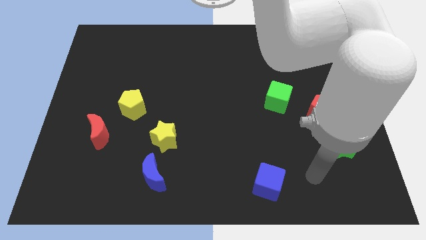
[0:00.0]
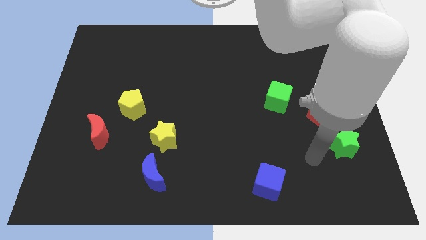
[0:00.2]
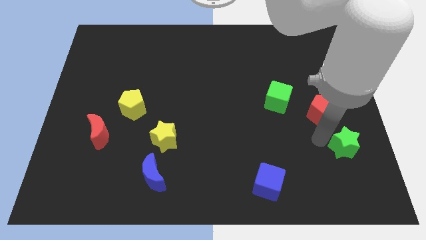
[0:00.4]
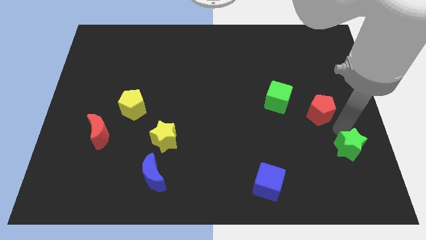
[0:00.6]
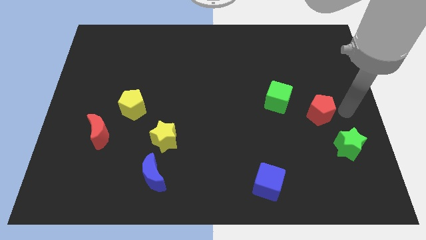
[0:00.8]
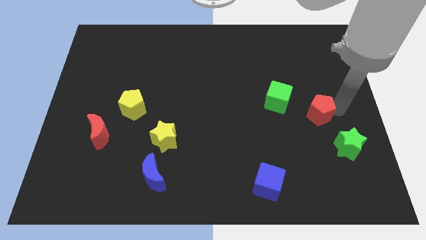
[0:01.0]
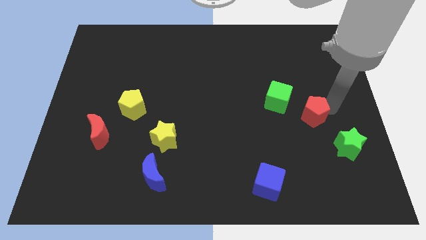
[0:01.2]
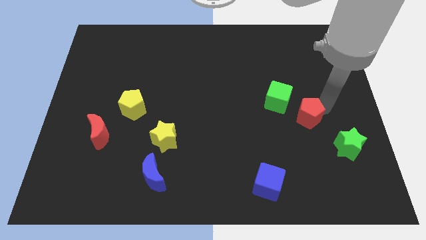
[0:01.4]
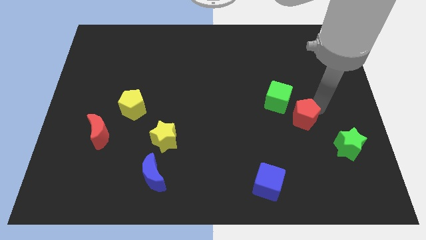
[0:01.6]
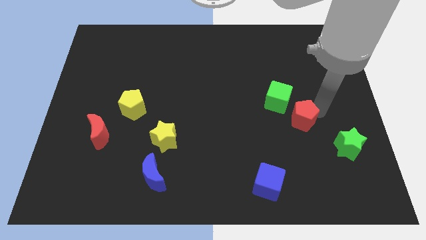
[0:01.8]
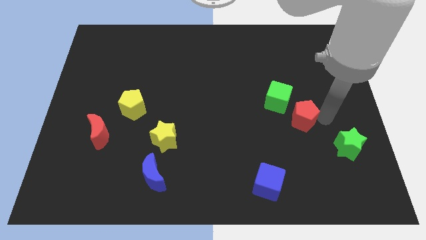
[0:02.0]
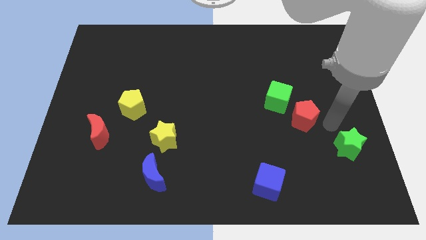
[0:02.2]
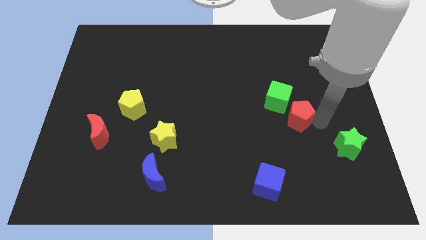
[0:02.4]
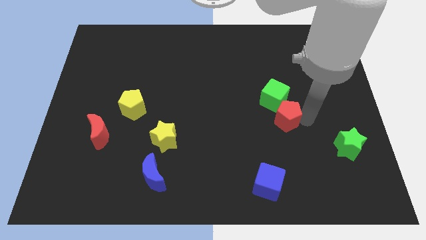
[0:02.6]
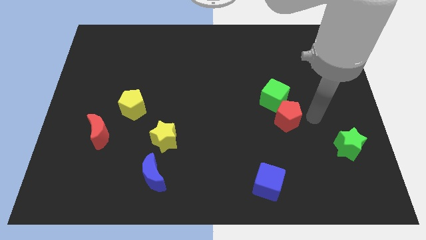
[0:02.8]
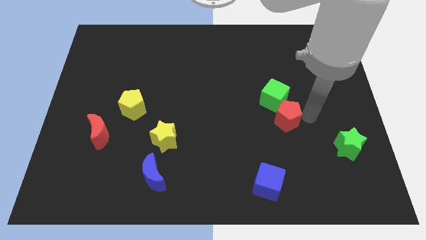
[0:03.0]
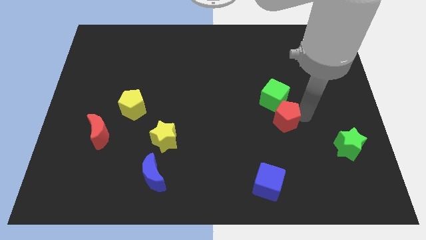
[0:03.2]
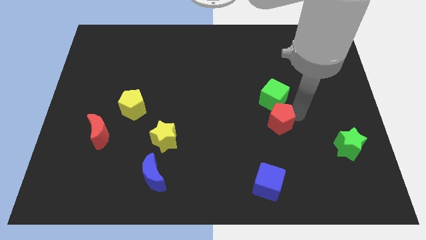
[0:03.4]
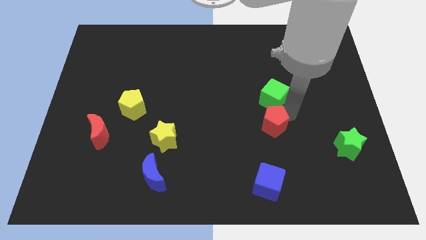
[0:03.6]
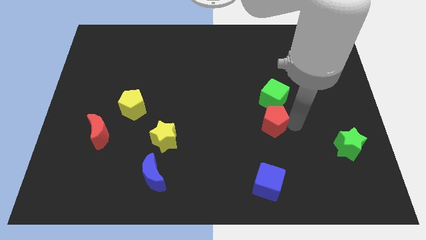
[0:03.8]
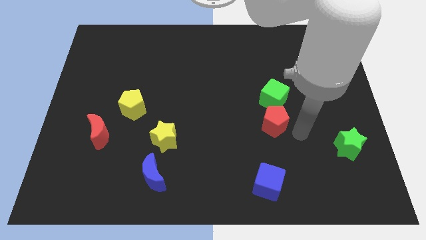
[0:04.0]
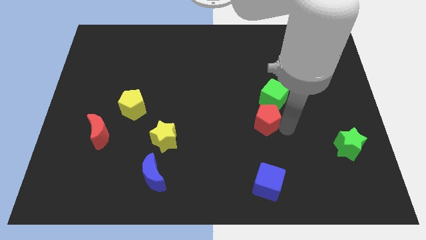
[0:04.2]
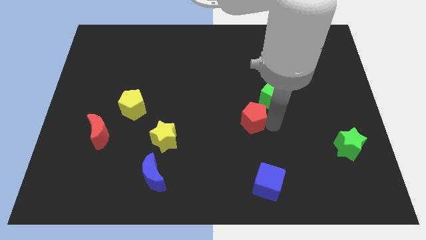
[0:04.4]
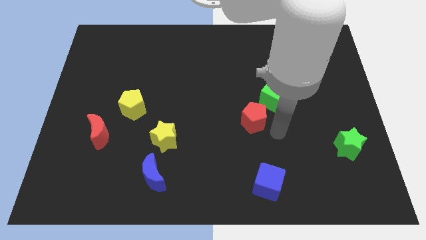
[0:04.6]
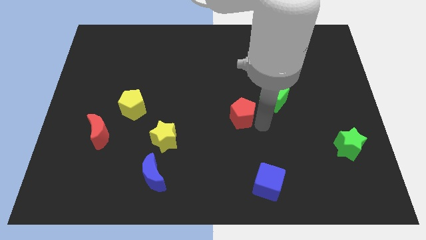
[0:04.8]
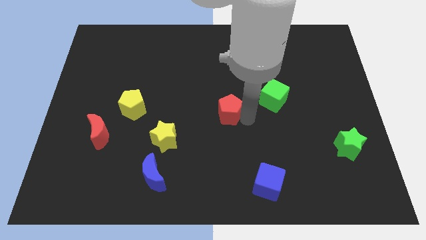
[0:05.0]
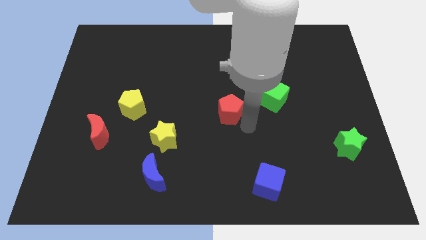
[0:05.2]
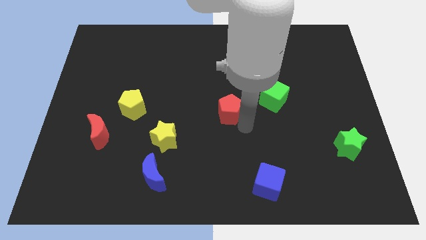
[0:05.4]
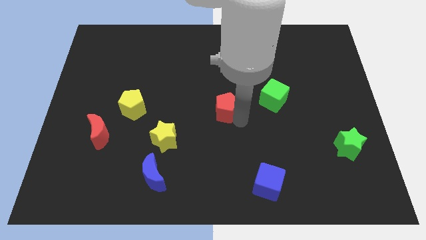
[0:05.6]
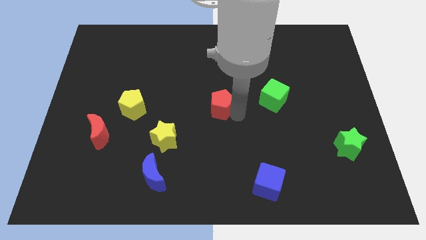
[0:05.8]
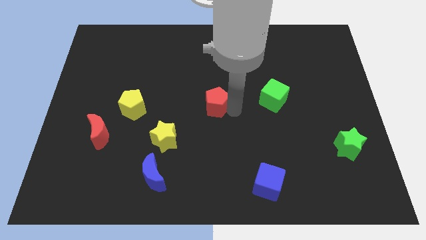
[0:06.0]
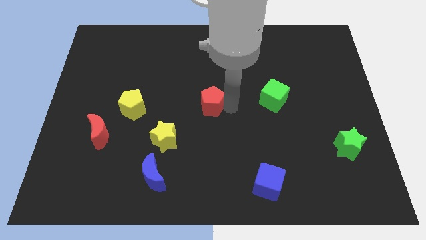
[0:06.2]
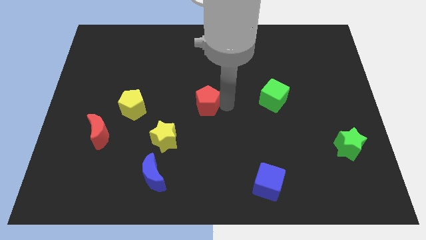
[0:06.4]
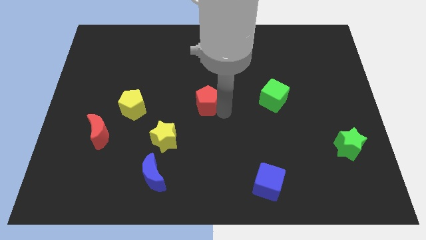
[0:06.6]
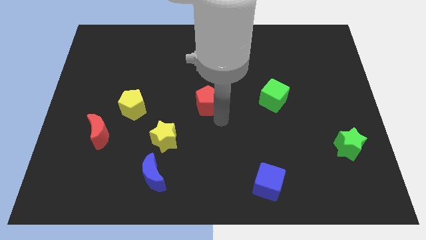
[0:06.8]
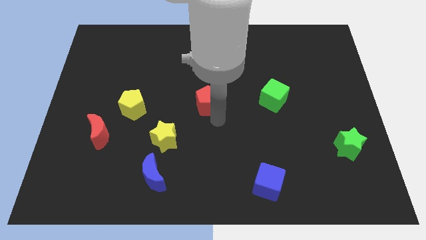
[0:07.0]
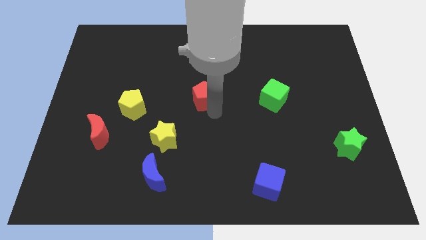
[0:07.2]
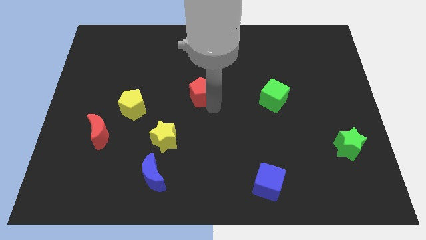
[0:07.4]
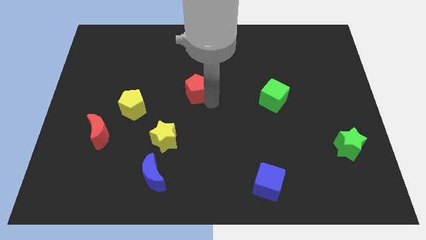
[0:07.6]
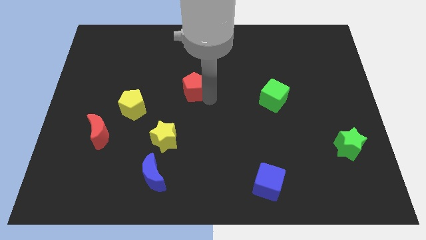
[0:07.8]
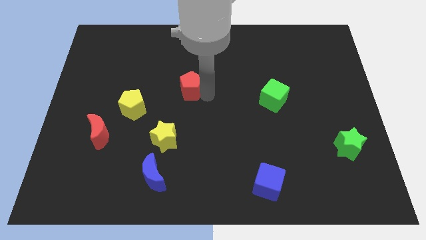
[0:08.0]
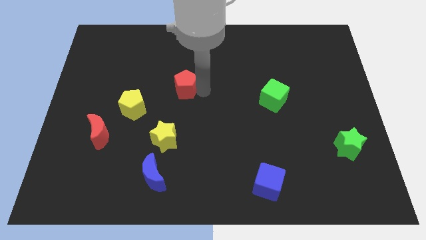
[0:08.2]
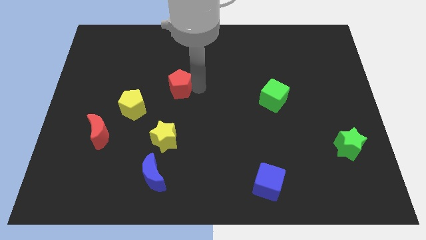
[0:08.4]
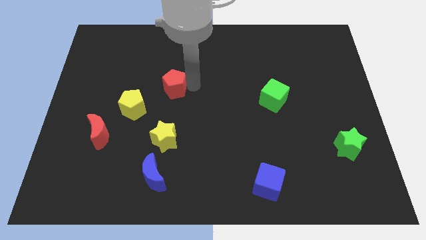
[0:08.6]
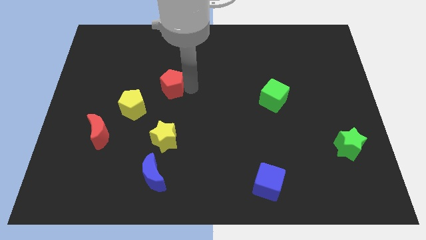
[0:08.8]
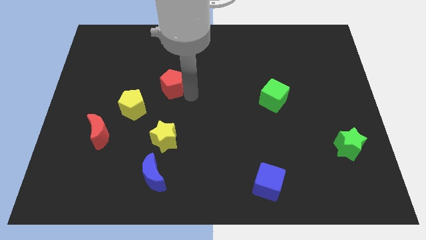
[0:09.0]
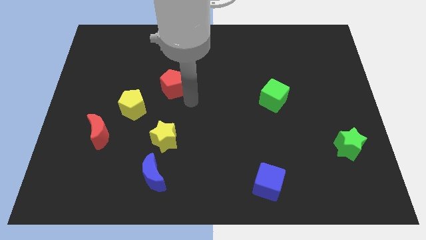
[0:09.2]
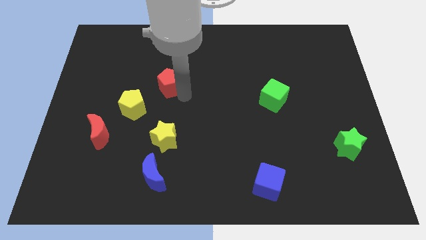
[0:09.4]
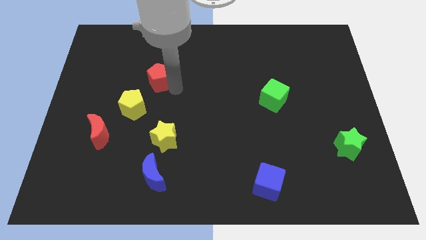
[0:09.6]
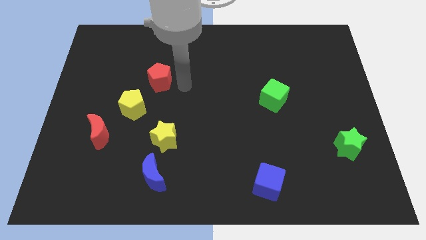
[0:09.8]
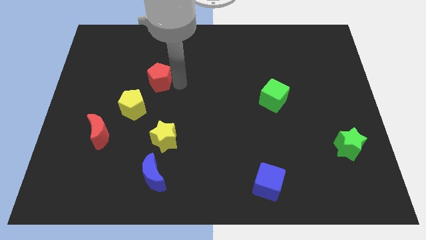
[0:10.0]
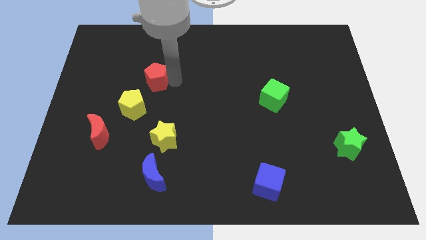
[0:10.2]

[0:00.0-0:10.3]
slide the red pentagon to the top side of the yellow pentagon

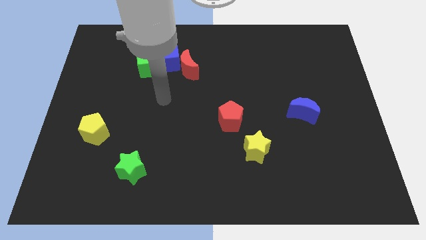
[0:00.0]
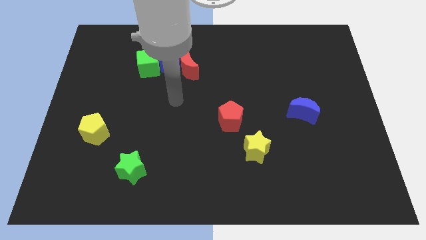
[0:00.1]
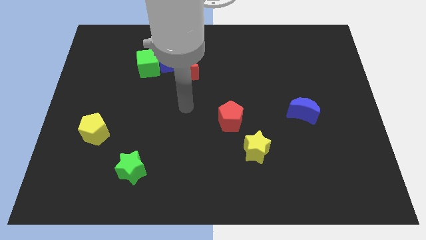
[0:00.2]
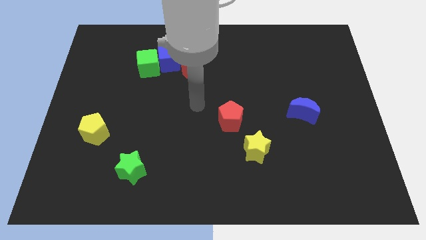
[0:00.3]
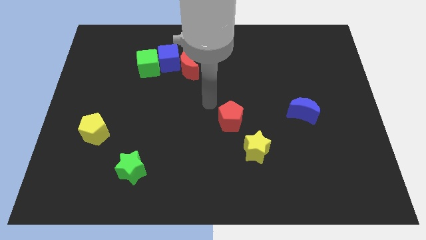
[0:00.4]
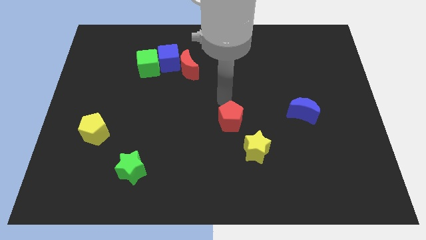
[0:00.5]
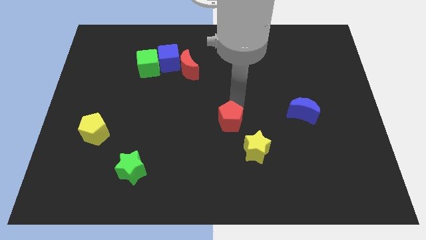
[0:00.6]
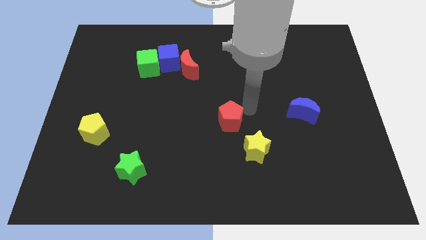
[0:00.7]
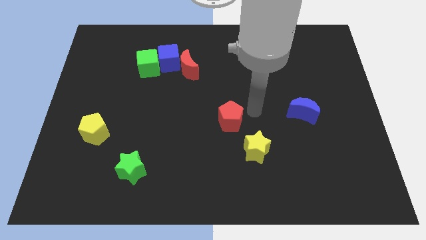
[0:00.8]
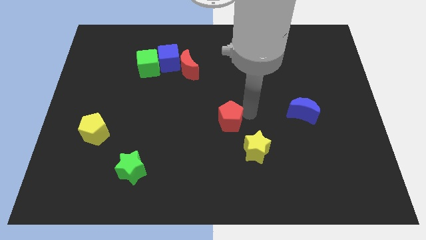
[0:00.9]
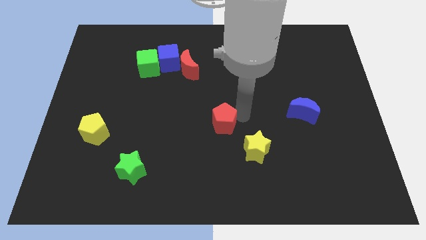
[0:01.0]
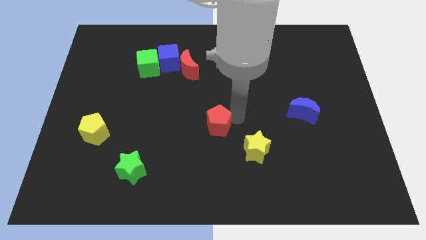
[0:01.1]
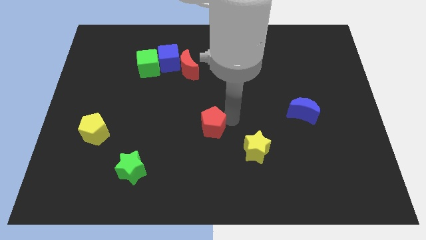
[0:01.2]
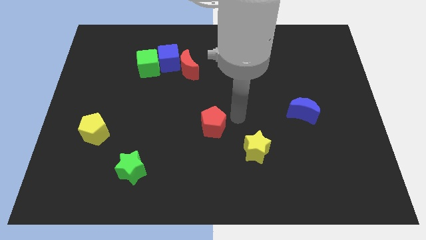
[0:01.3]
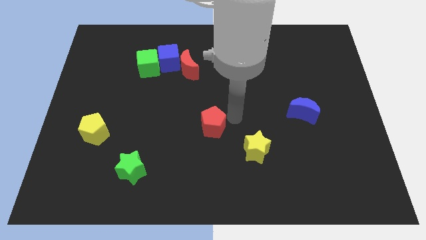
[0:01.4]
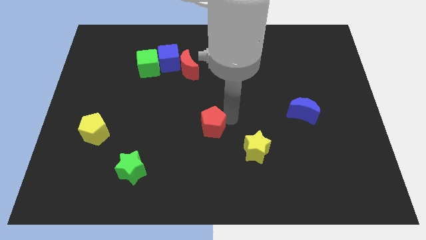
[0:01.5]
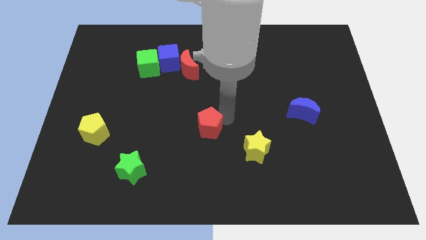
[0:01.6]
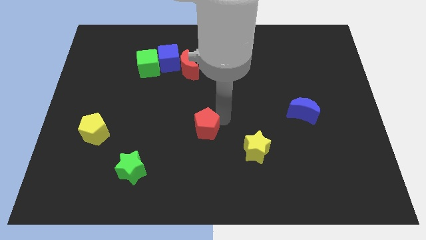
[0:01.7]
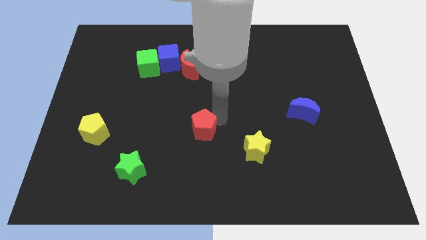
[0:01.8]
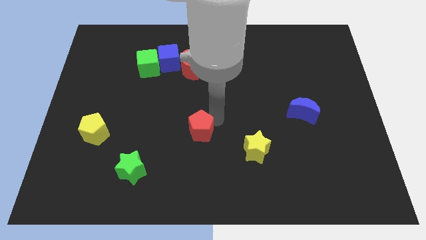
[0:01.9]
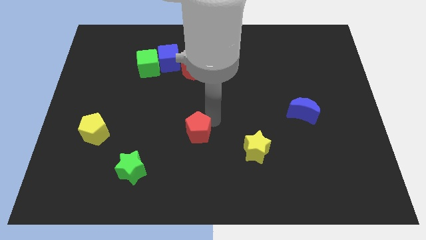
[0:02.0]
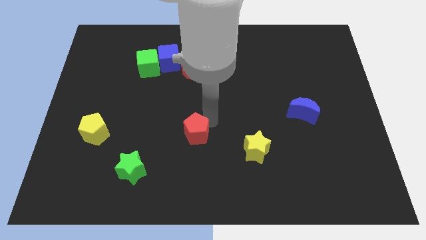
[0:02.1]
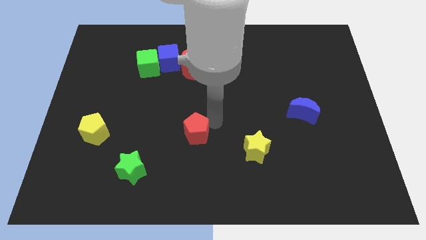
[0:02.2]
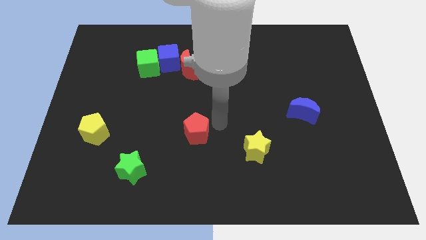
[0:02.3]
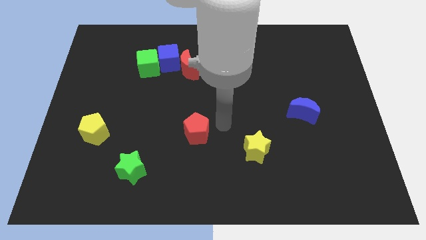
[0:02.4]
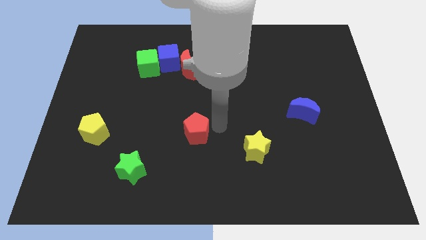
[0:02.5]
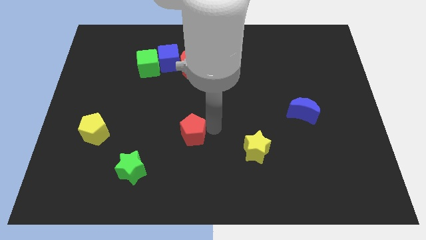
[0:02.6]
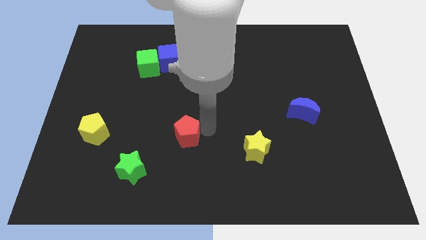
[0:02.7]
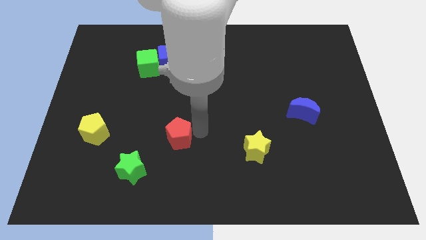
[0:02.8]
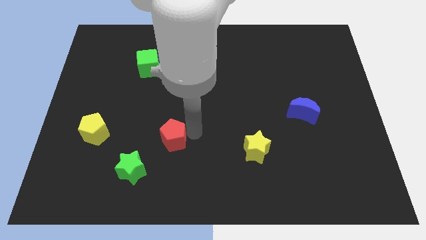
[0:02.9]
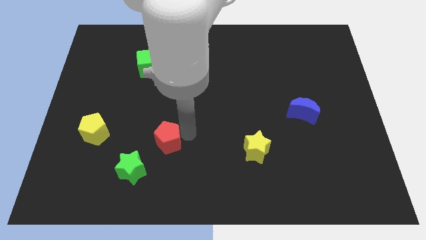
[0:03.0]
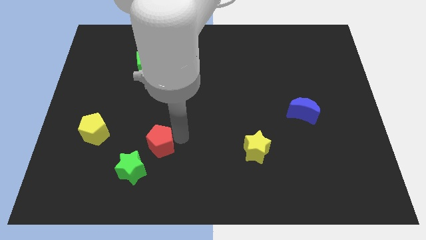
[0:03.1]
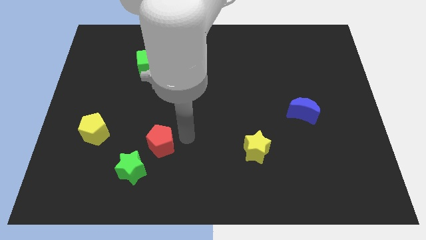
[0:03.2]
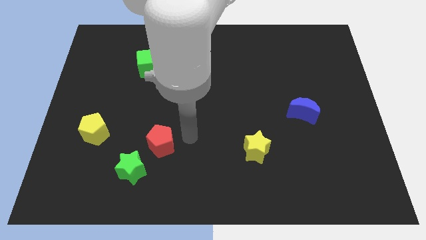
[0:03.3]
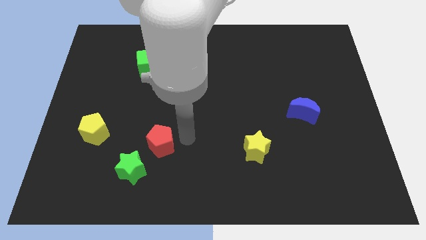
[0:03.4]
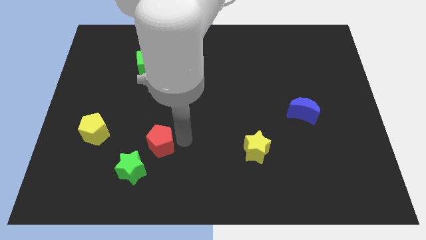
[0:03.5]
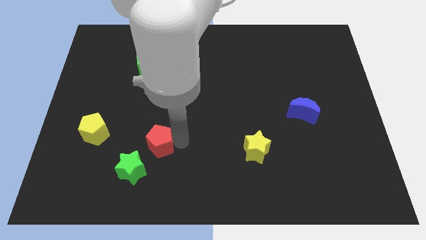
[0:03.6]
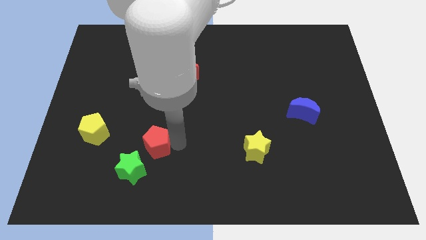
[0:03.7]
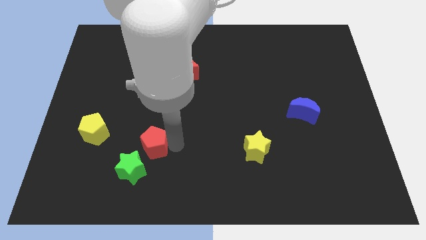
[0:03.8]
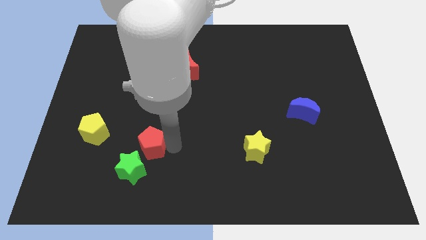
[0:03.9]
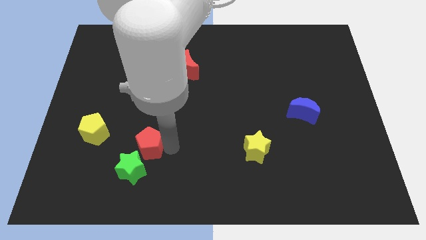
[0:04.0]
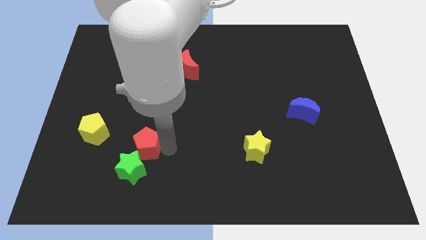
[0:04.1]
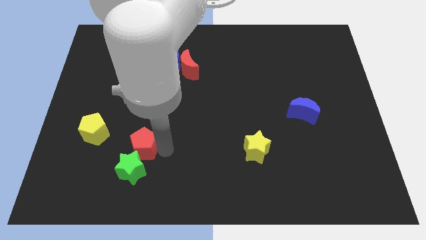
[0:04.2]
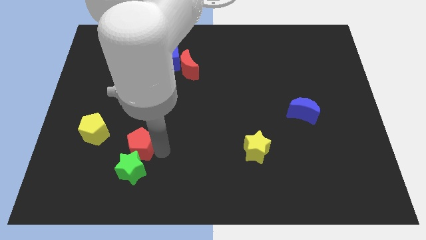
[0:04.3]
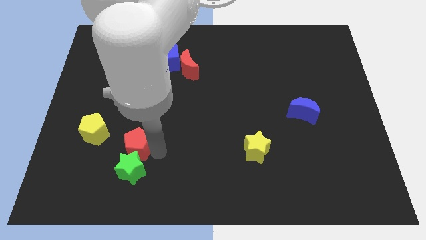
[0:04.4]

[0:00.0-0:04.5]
push the red pentagon diagonally down and to the right of the yellow pentagon
